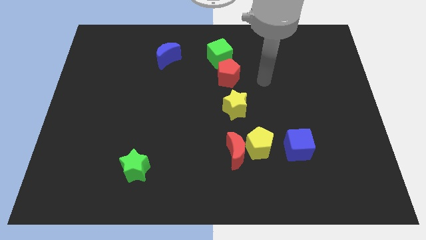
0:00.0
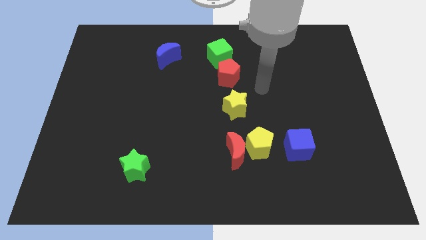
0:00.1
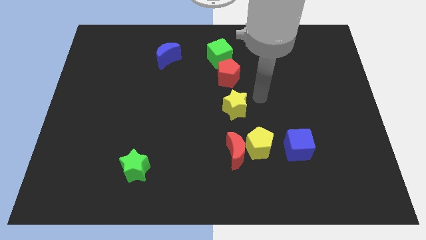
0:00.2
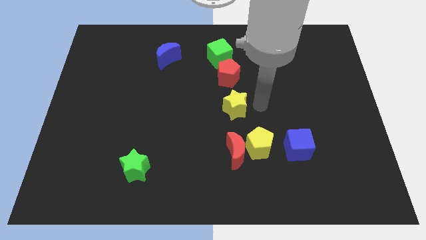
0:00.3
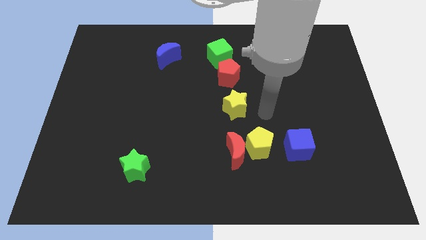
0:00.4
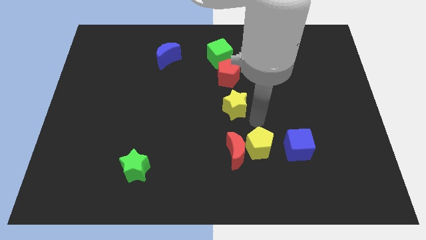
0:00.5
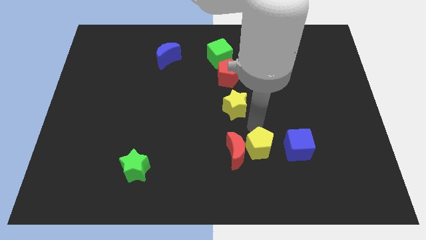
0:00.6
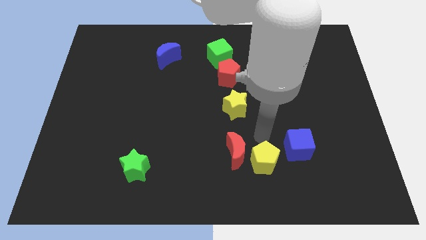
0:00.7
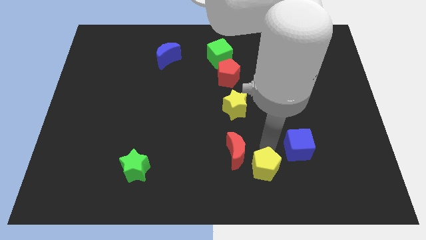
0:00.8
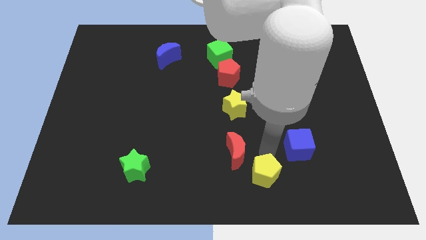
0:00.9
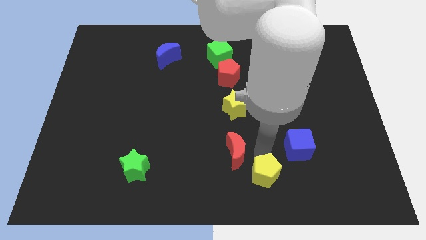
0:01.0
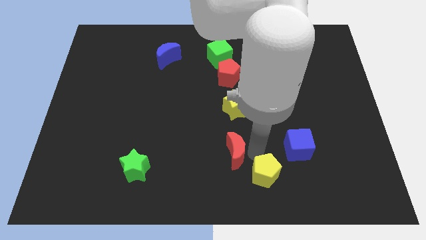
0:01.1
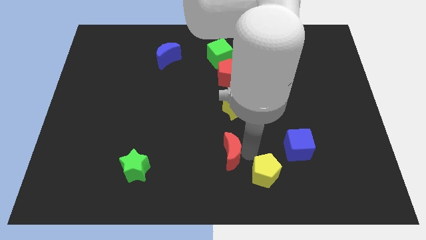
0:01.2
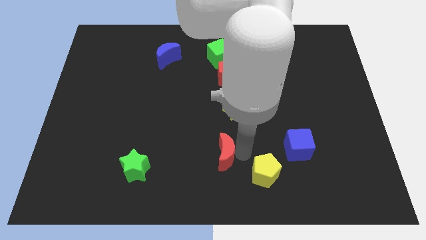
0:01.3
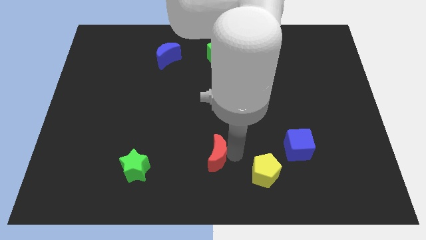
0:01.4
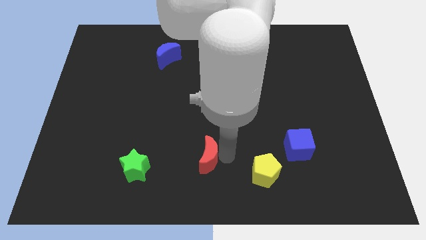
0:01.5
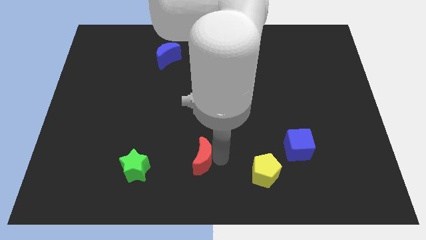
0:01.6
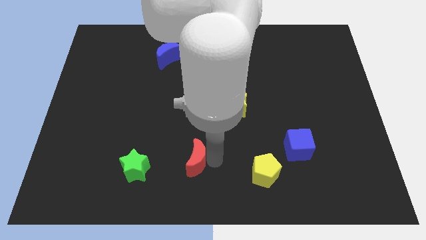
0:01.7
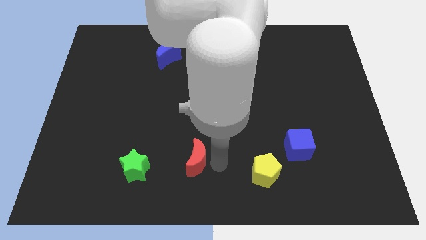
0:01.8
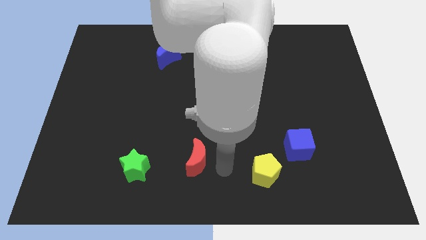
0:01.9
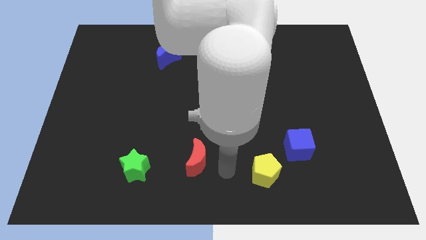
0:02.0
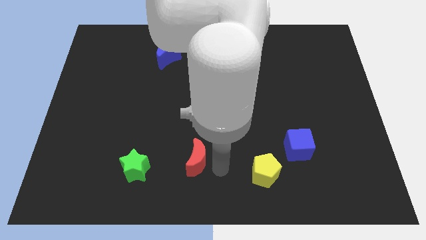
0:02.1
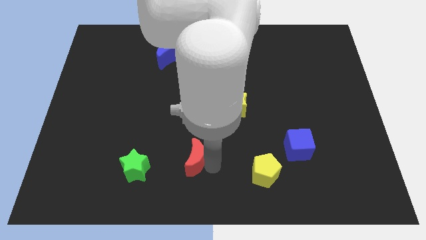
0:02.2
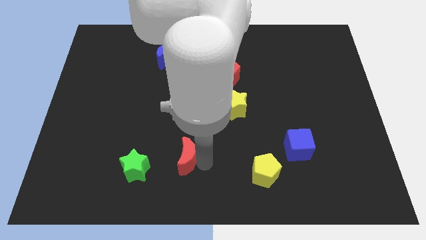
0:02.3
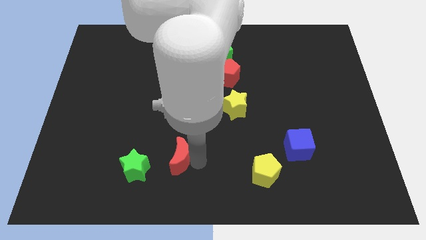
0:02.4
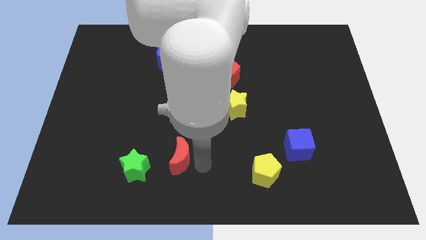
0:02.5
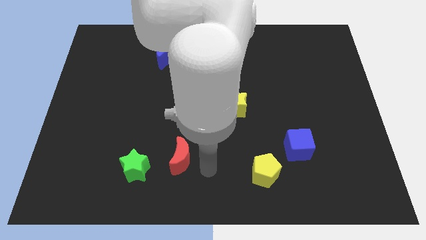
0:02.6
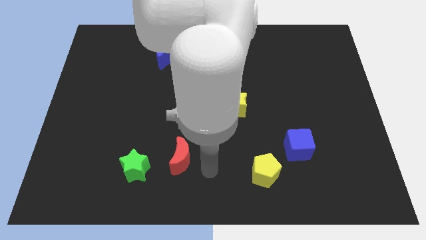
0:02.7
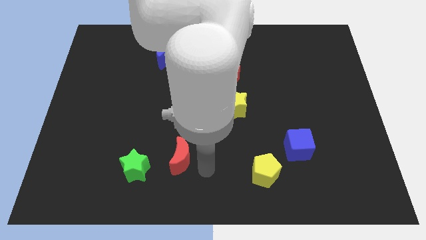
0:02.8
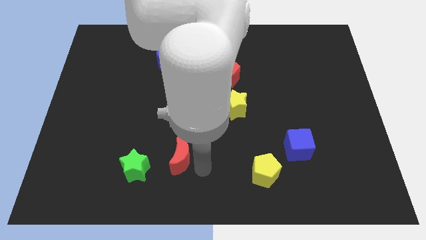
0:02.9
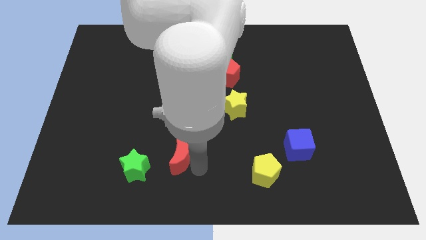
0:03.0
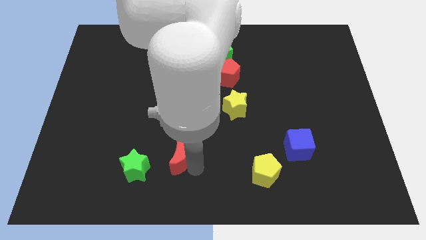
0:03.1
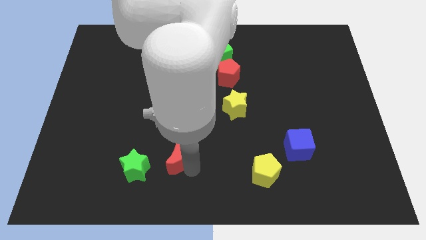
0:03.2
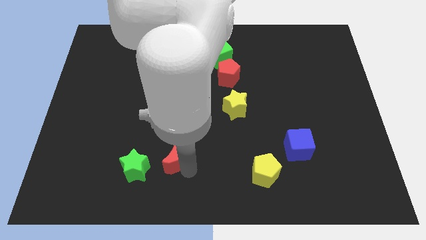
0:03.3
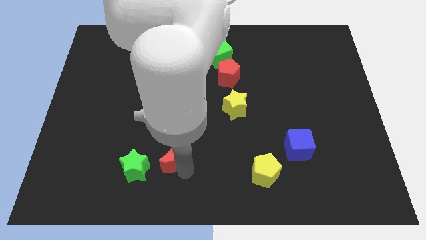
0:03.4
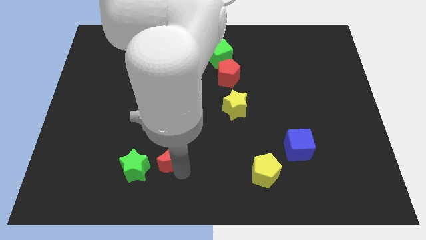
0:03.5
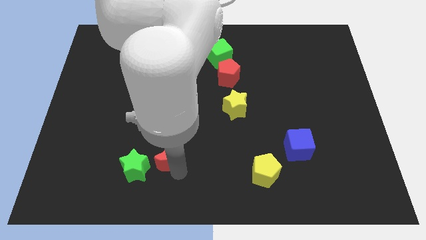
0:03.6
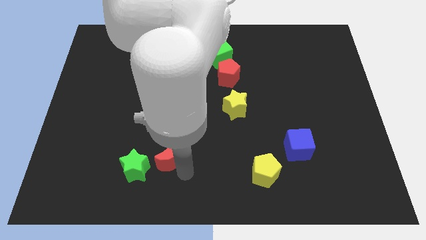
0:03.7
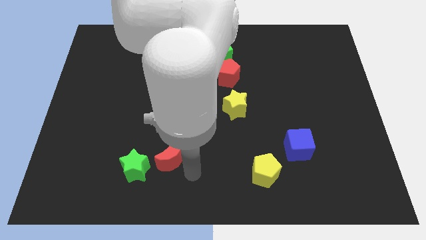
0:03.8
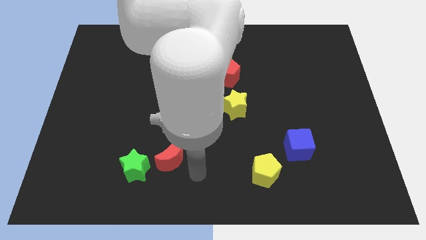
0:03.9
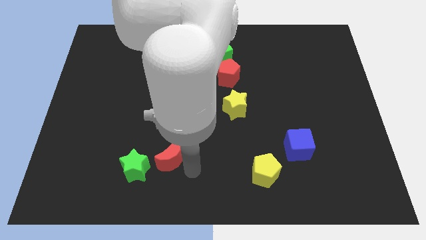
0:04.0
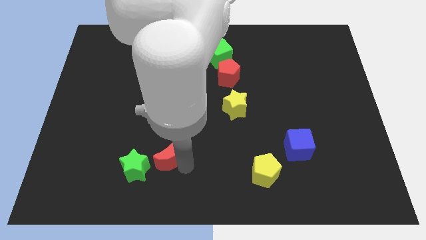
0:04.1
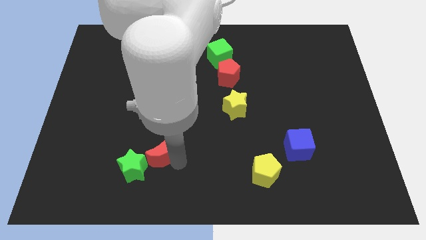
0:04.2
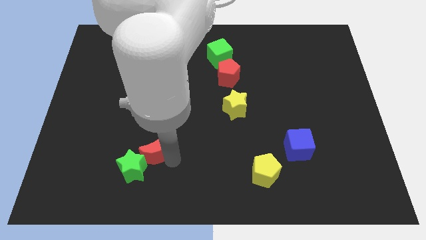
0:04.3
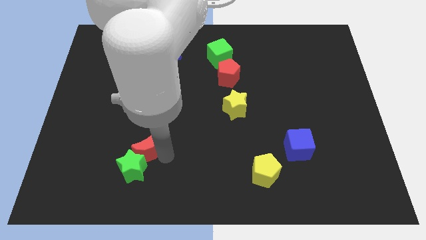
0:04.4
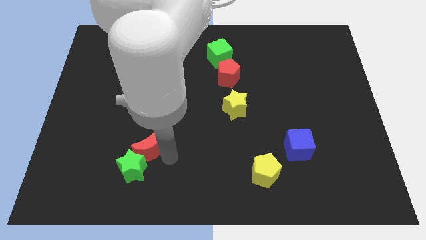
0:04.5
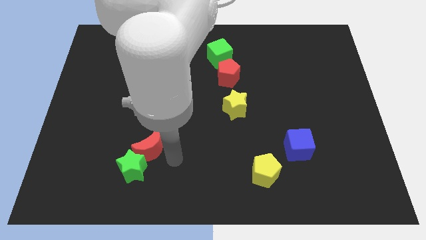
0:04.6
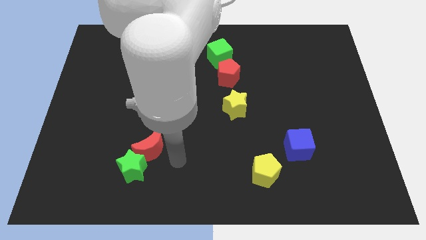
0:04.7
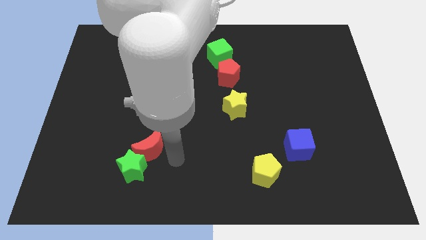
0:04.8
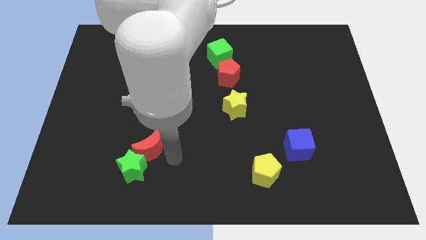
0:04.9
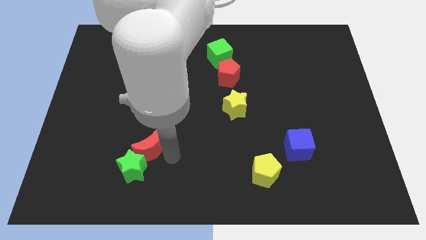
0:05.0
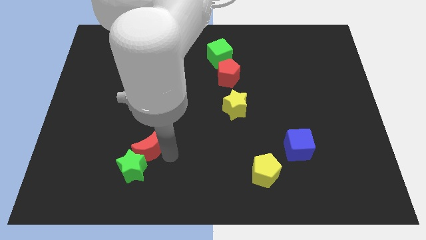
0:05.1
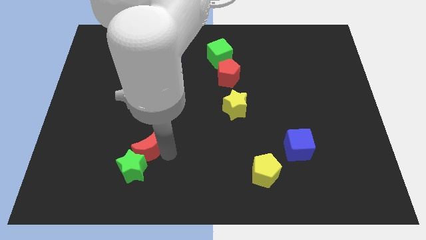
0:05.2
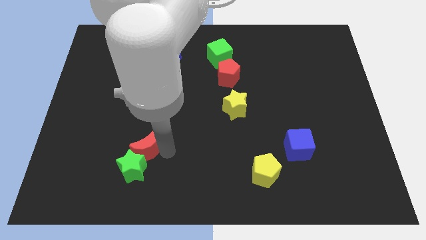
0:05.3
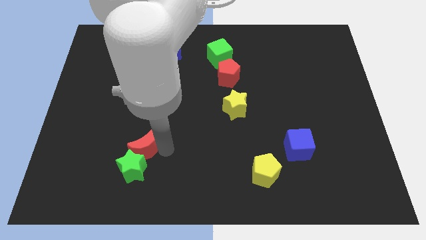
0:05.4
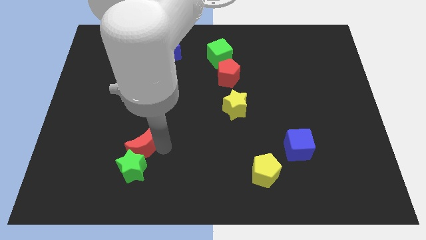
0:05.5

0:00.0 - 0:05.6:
push the red moon left

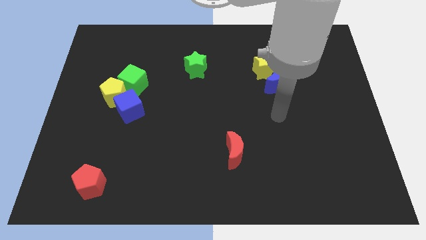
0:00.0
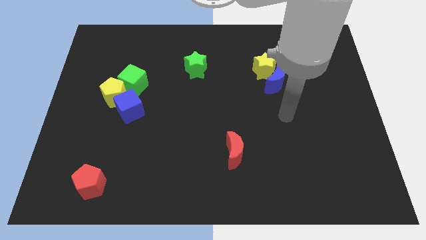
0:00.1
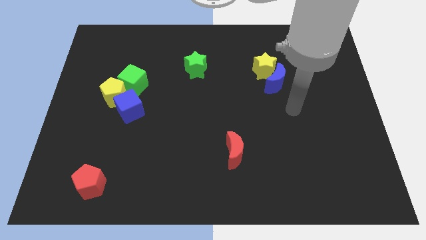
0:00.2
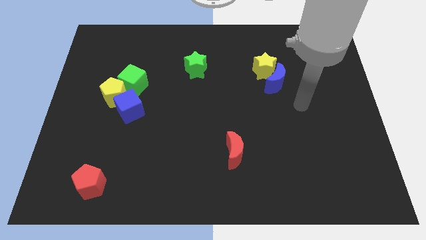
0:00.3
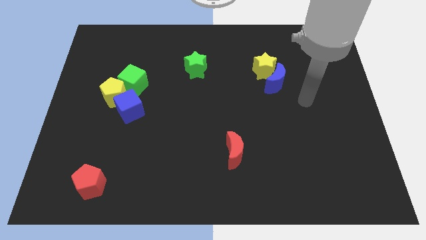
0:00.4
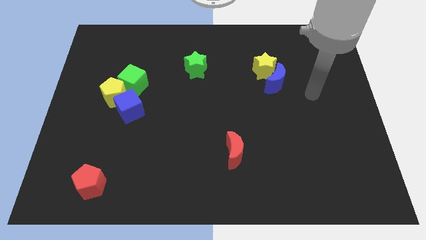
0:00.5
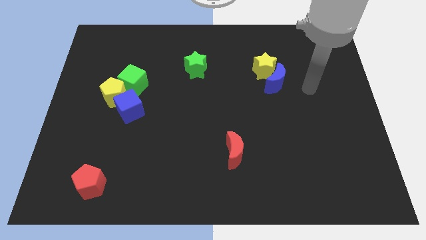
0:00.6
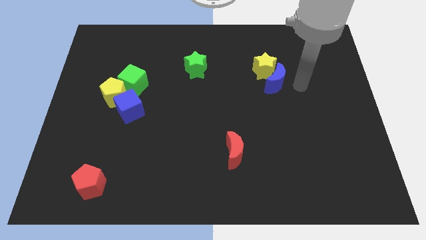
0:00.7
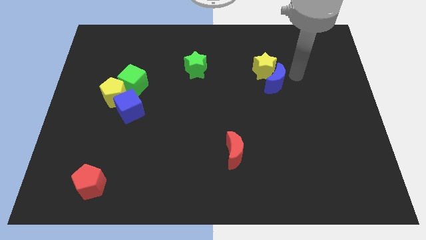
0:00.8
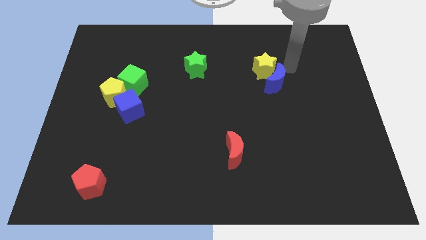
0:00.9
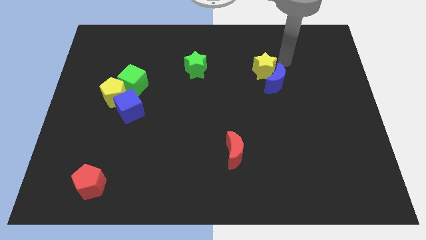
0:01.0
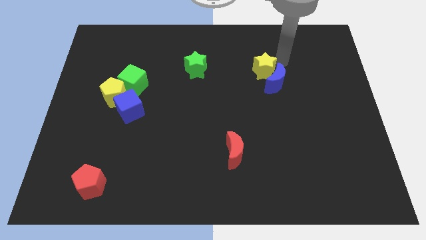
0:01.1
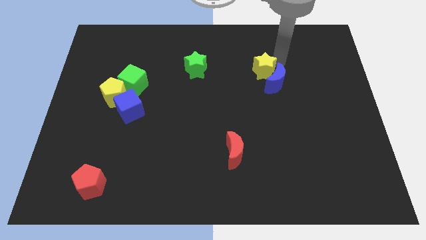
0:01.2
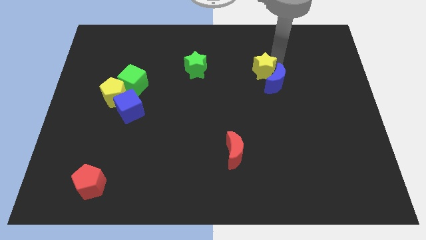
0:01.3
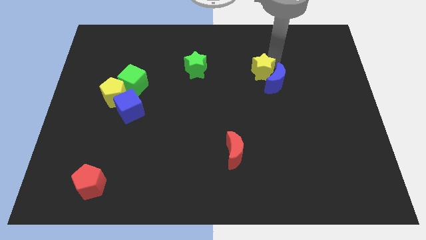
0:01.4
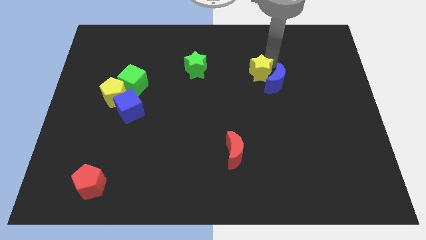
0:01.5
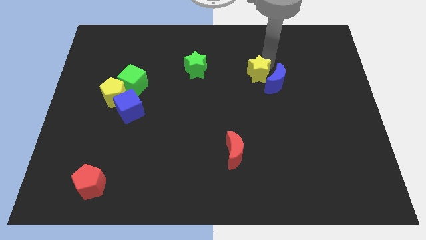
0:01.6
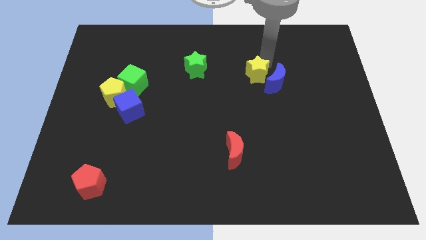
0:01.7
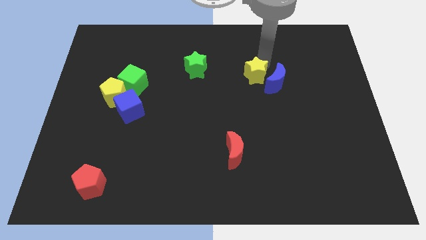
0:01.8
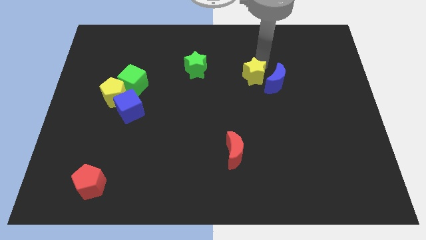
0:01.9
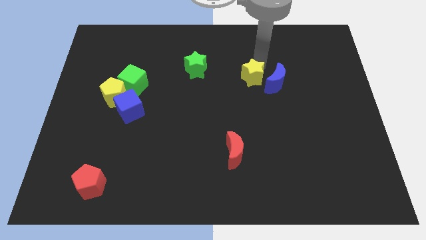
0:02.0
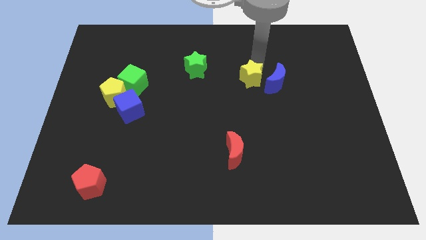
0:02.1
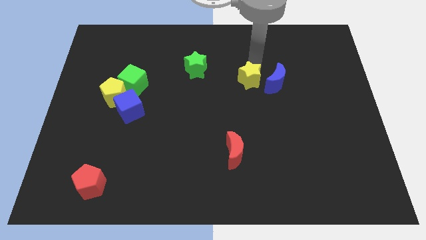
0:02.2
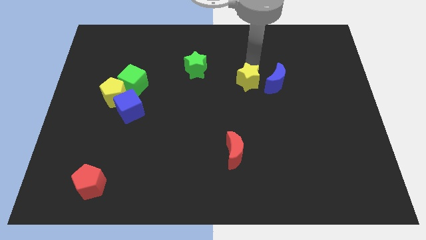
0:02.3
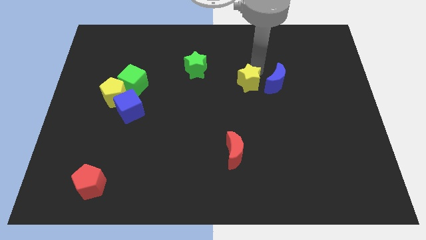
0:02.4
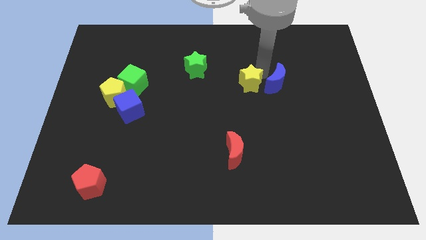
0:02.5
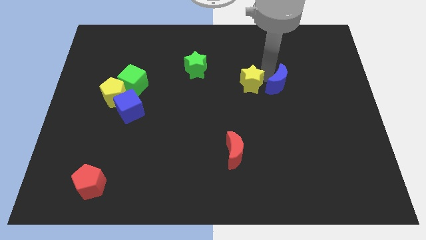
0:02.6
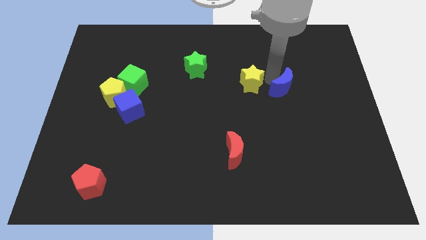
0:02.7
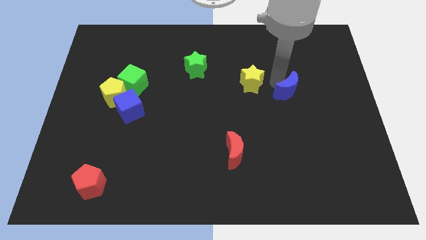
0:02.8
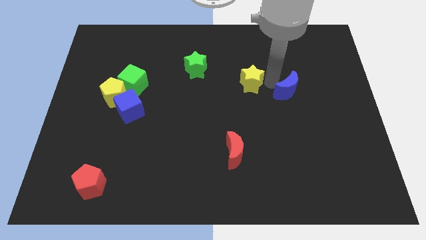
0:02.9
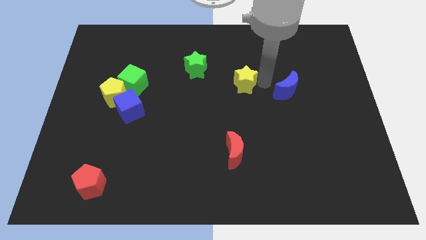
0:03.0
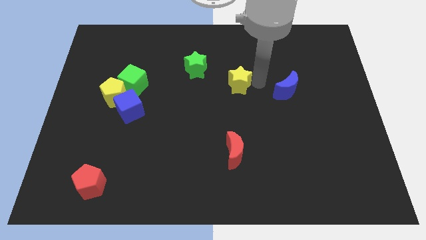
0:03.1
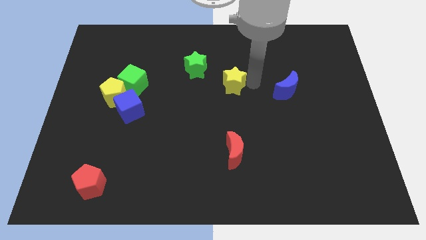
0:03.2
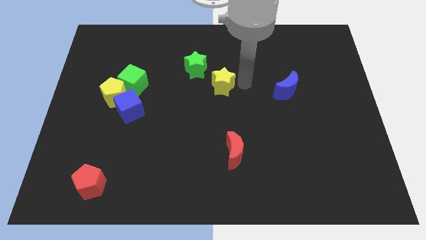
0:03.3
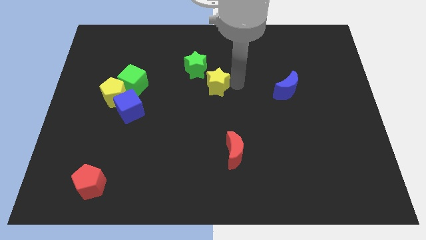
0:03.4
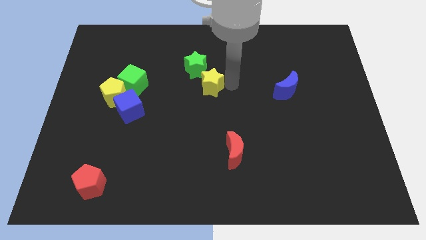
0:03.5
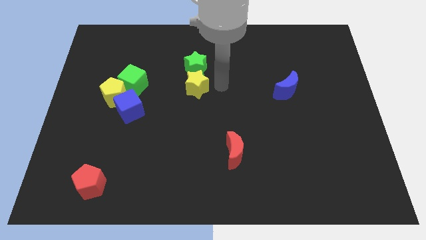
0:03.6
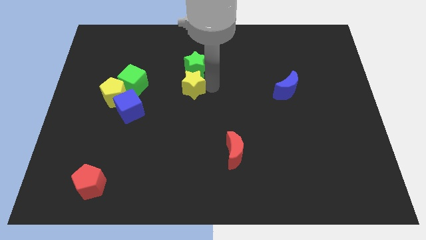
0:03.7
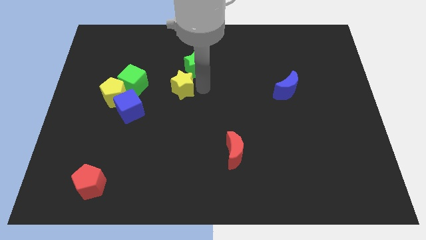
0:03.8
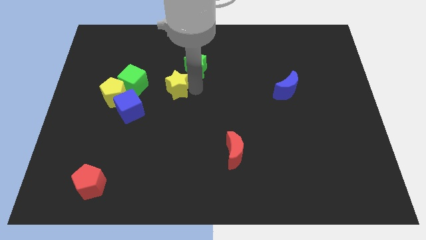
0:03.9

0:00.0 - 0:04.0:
move the yellow star left
